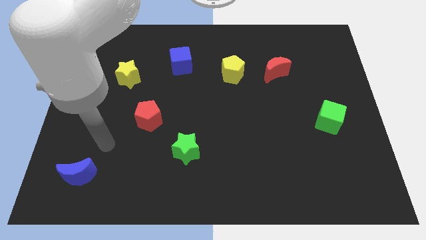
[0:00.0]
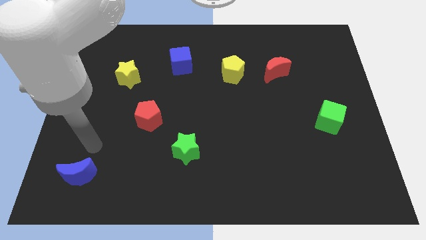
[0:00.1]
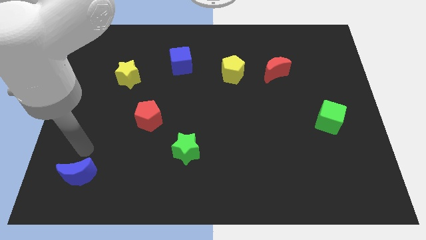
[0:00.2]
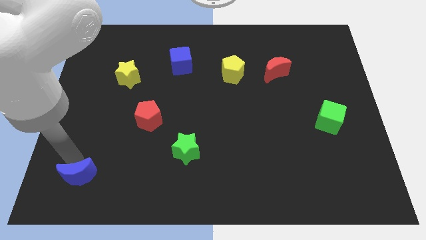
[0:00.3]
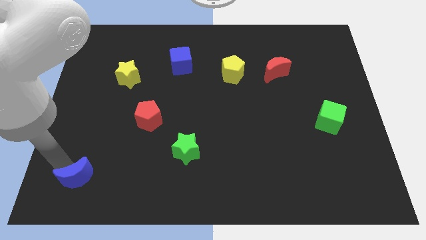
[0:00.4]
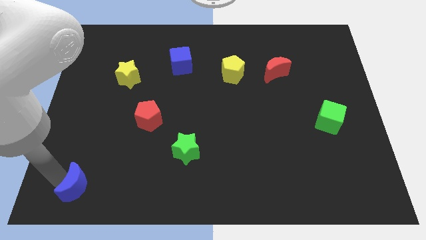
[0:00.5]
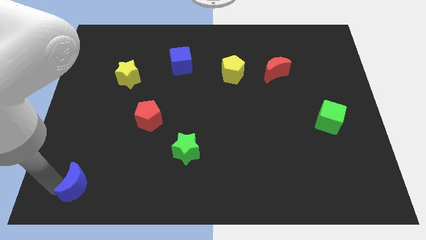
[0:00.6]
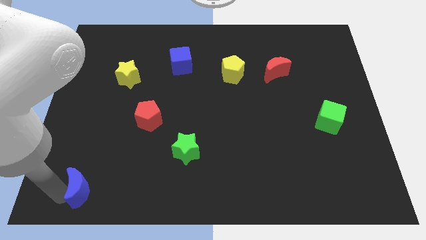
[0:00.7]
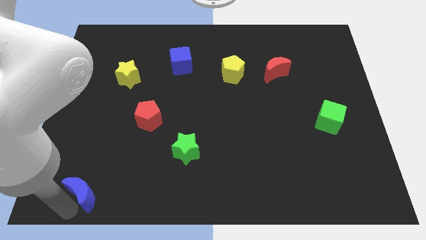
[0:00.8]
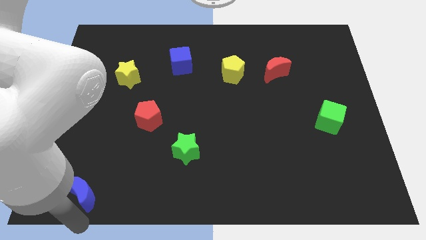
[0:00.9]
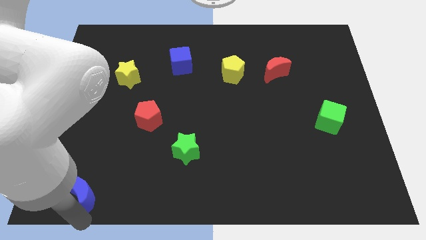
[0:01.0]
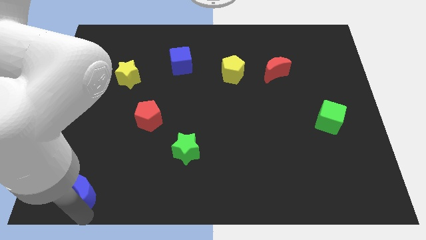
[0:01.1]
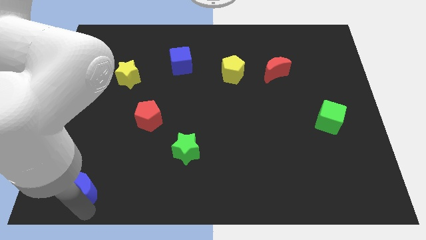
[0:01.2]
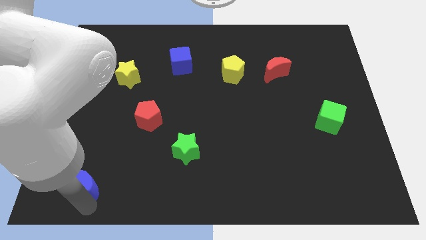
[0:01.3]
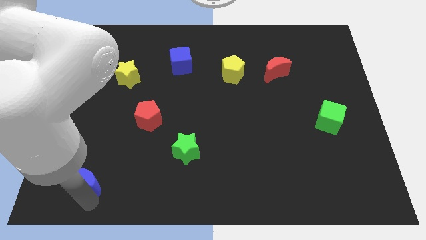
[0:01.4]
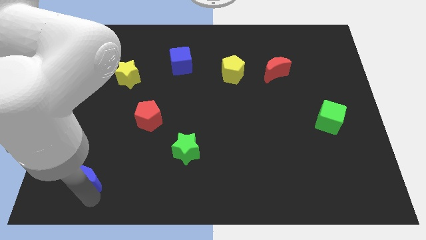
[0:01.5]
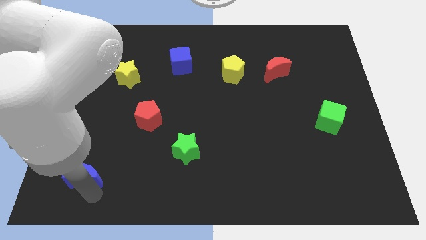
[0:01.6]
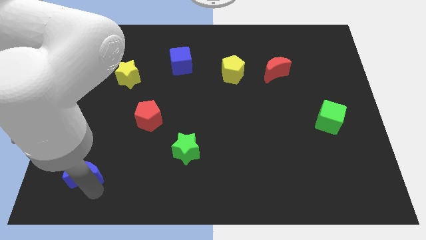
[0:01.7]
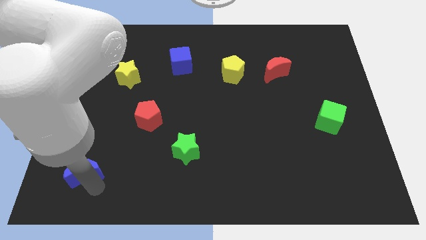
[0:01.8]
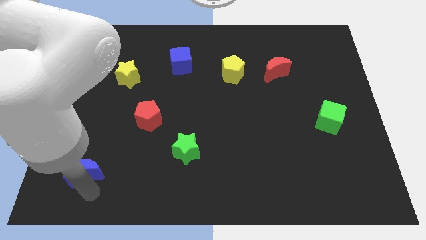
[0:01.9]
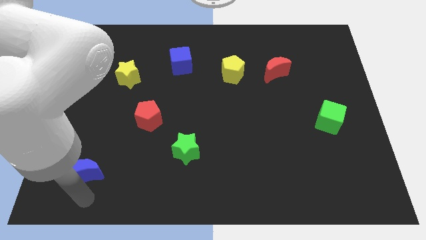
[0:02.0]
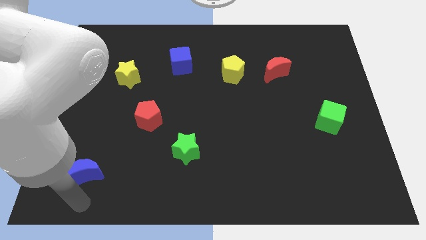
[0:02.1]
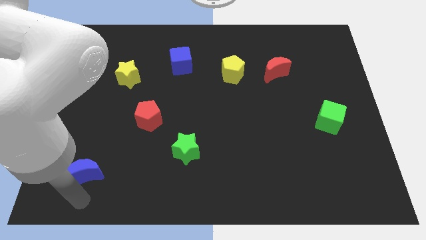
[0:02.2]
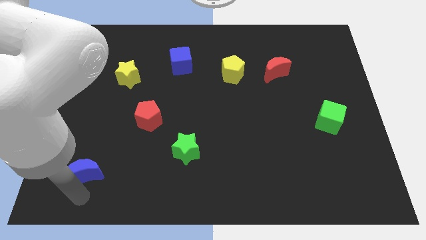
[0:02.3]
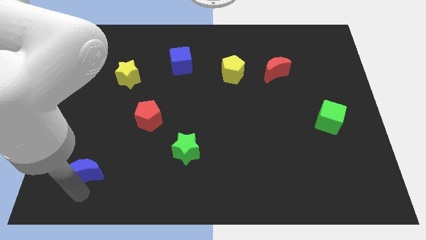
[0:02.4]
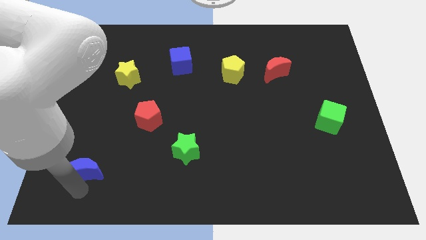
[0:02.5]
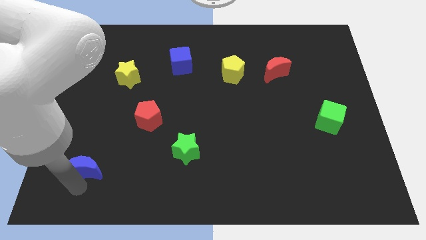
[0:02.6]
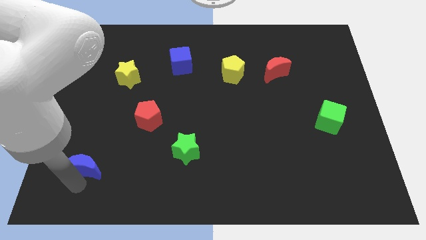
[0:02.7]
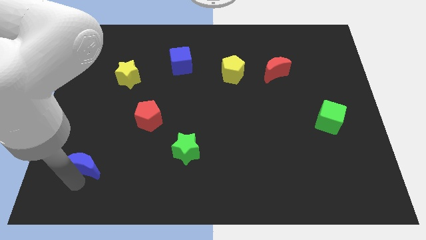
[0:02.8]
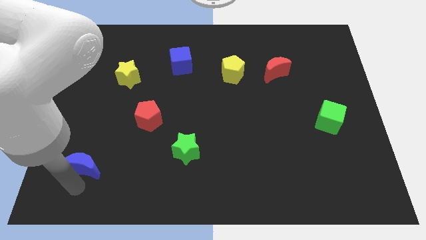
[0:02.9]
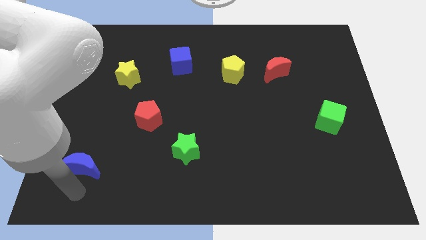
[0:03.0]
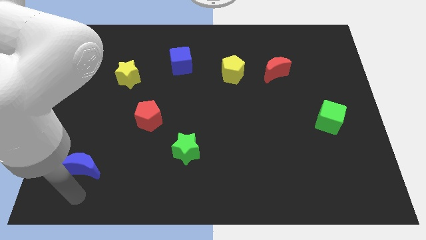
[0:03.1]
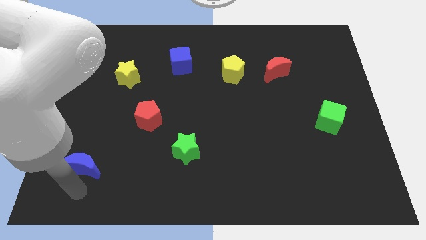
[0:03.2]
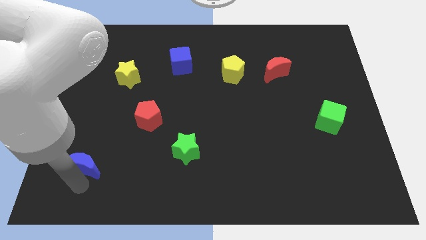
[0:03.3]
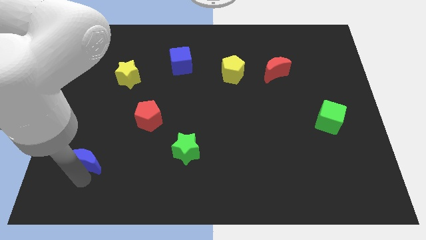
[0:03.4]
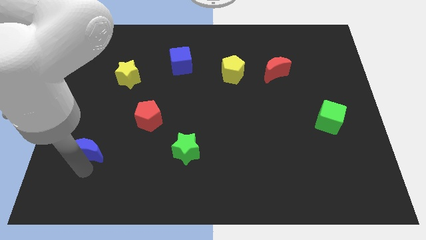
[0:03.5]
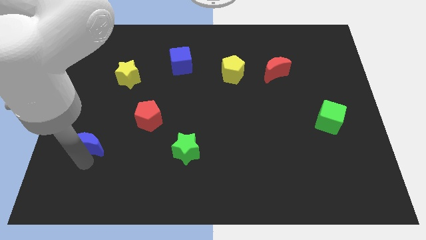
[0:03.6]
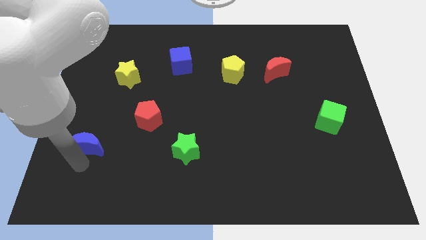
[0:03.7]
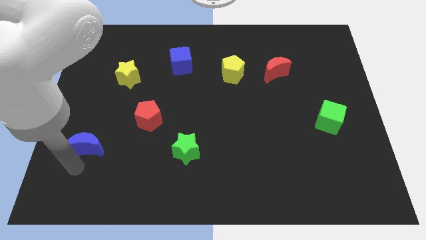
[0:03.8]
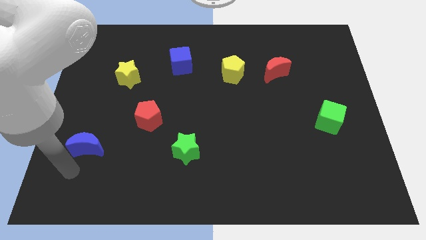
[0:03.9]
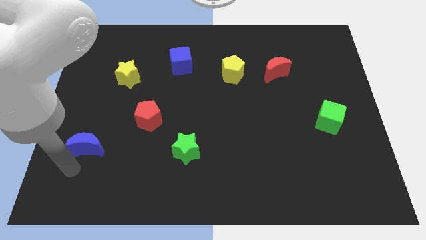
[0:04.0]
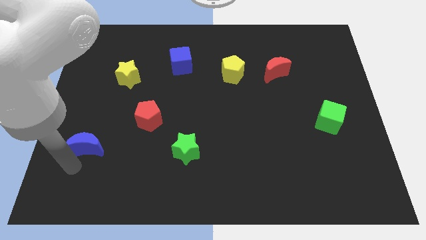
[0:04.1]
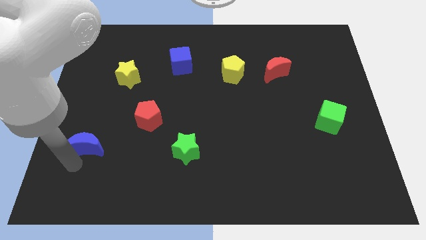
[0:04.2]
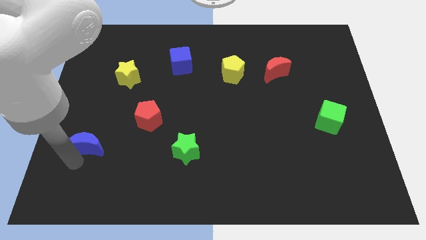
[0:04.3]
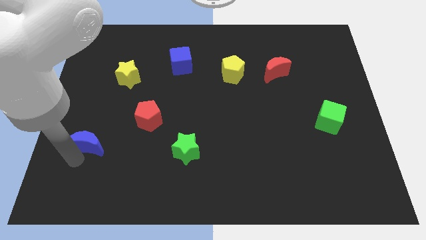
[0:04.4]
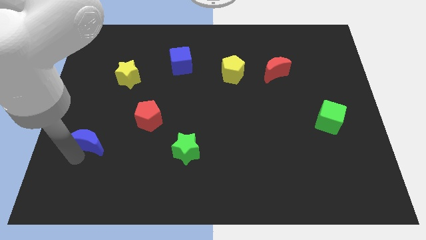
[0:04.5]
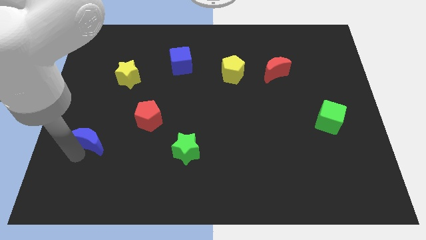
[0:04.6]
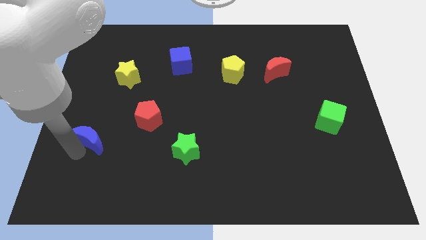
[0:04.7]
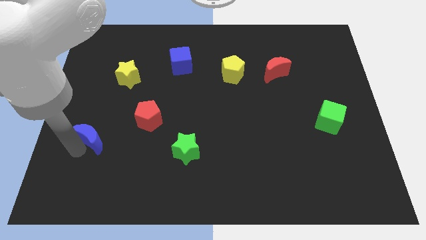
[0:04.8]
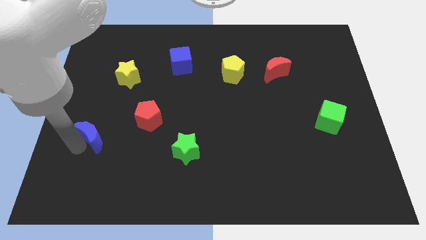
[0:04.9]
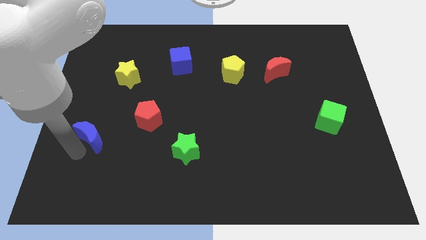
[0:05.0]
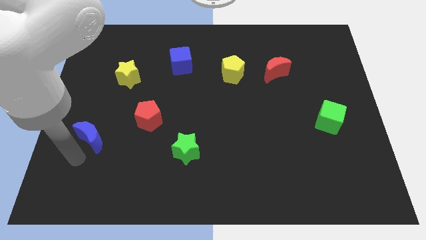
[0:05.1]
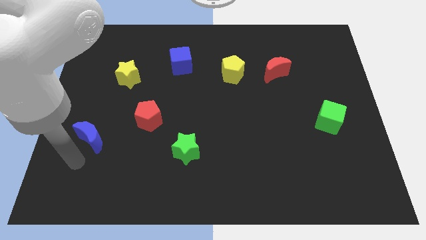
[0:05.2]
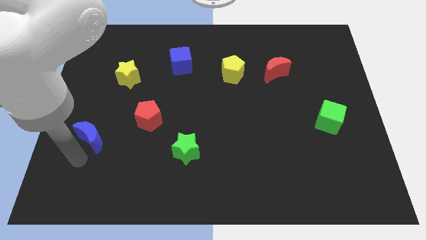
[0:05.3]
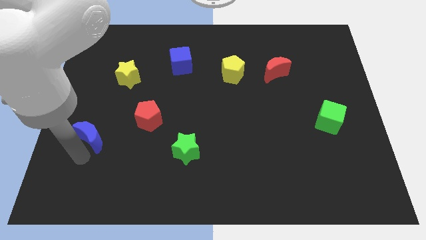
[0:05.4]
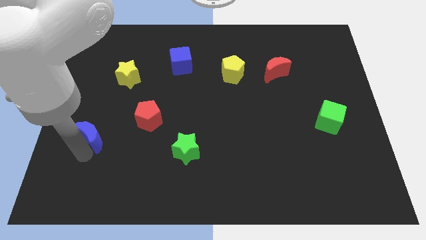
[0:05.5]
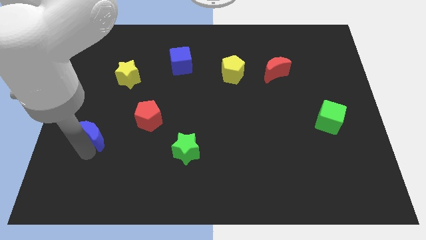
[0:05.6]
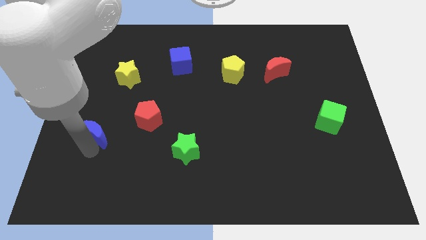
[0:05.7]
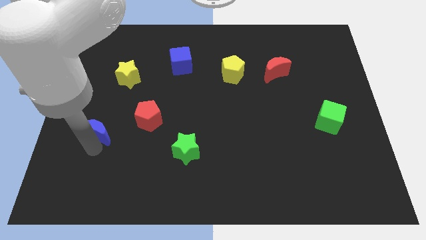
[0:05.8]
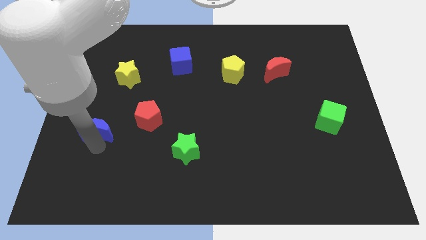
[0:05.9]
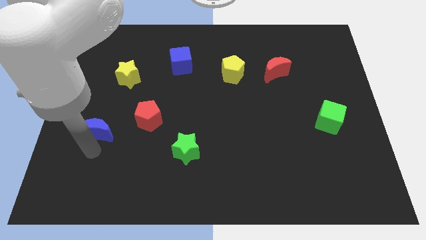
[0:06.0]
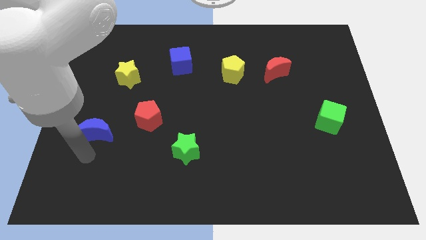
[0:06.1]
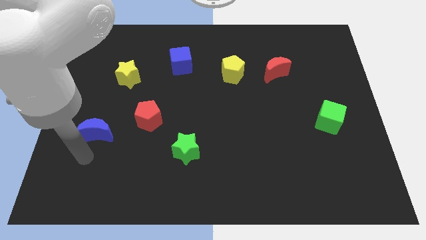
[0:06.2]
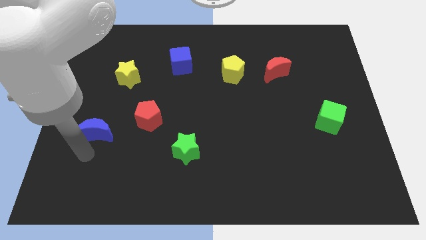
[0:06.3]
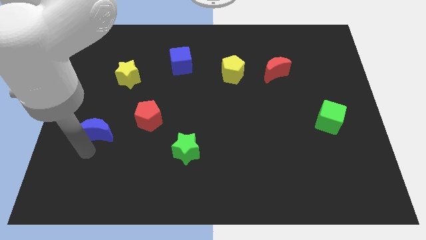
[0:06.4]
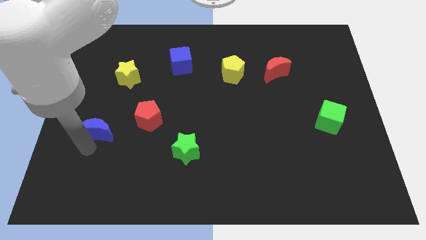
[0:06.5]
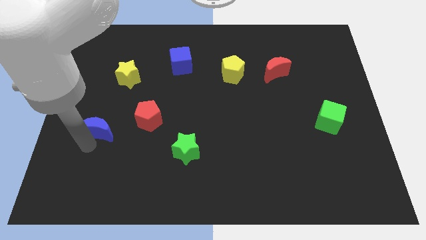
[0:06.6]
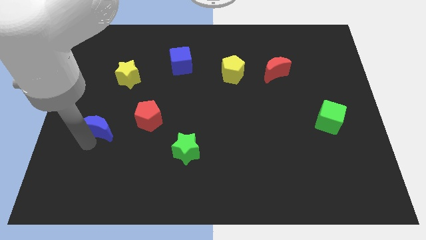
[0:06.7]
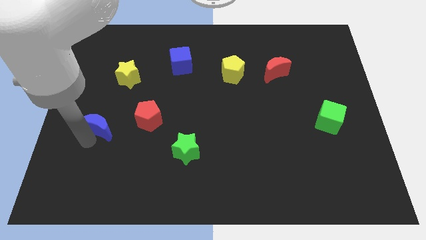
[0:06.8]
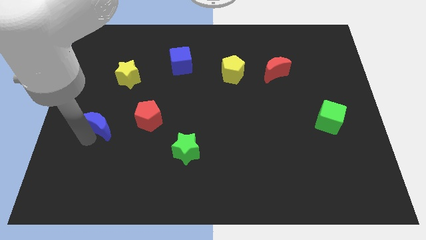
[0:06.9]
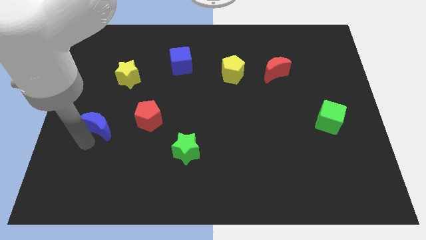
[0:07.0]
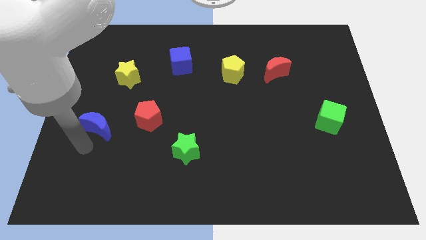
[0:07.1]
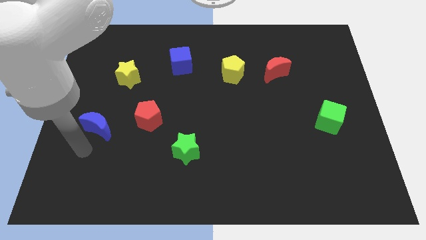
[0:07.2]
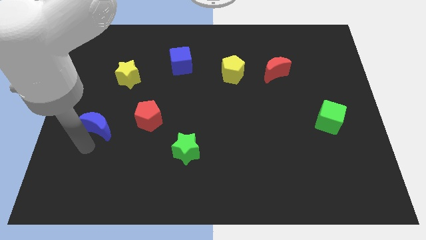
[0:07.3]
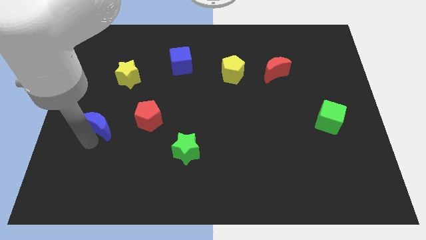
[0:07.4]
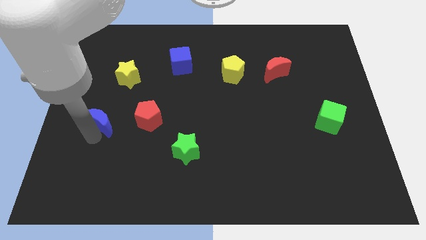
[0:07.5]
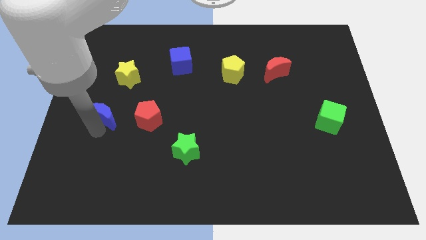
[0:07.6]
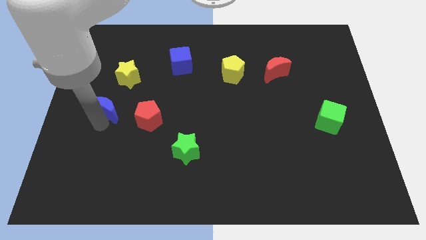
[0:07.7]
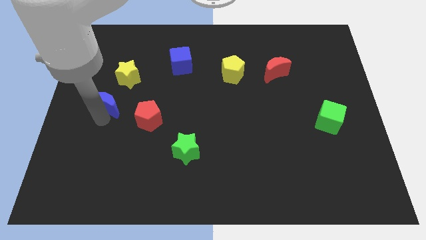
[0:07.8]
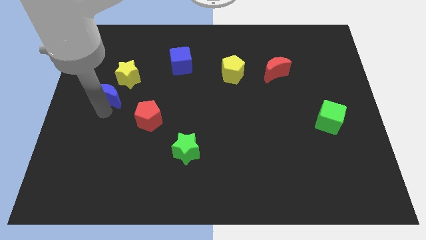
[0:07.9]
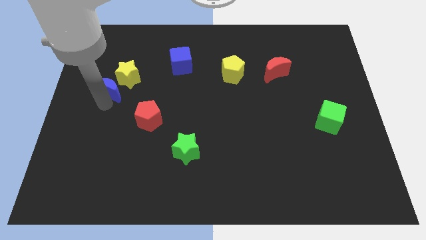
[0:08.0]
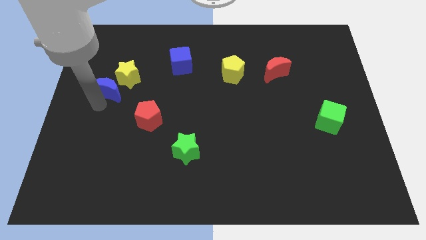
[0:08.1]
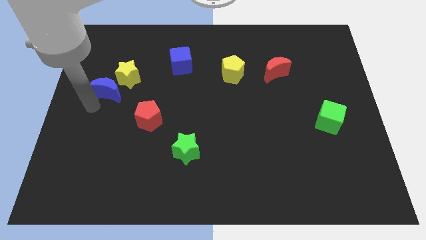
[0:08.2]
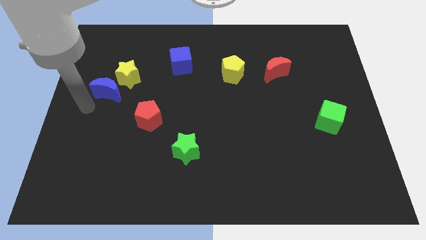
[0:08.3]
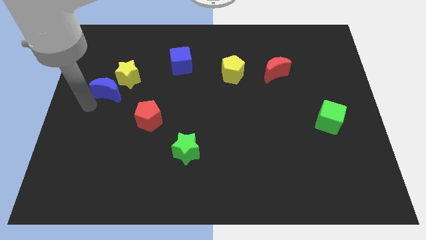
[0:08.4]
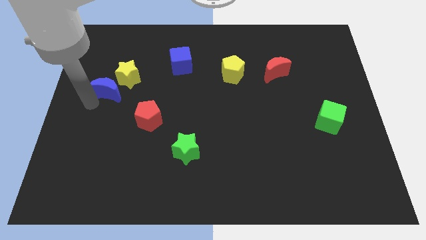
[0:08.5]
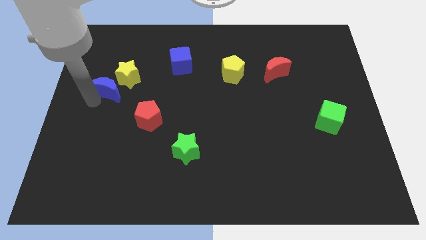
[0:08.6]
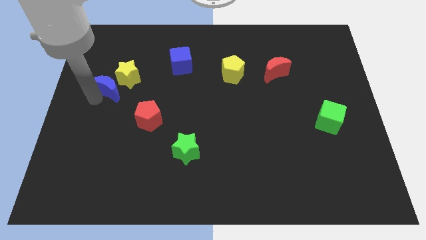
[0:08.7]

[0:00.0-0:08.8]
put the blue moon next to the yellow star
